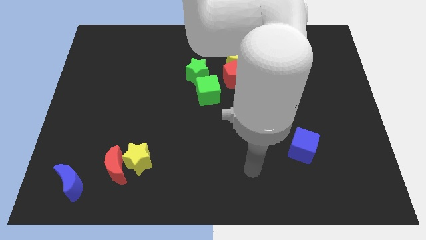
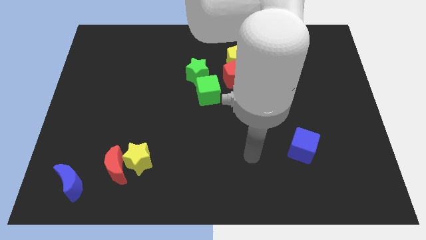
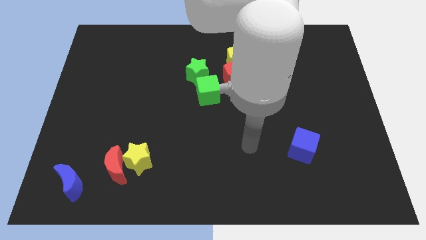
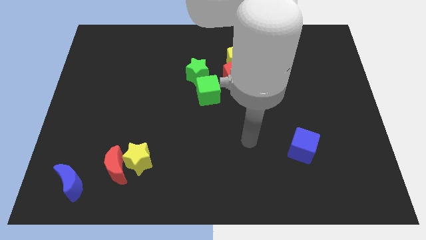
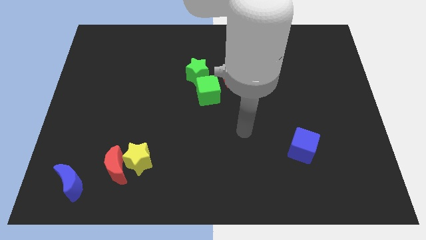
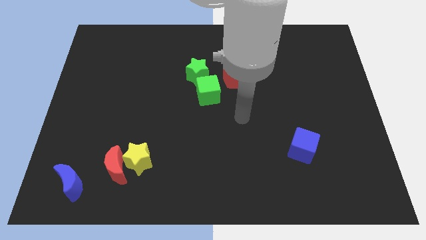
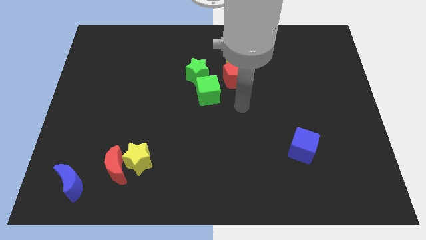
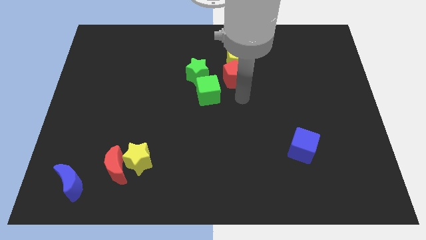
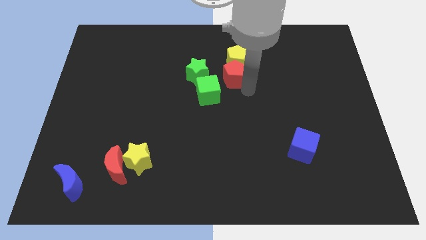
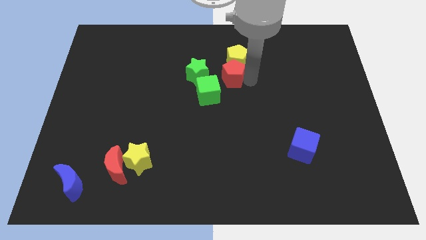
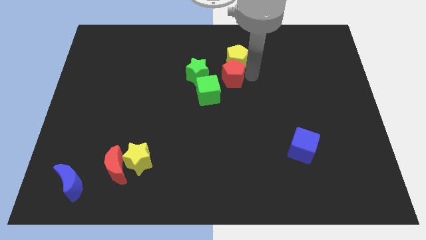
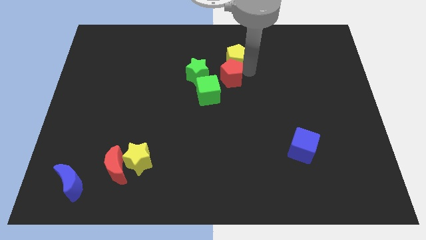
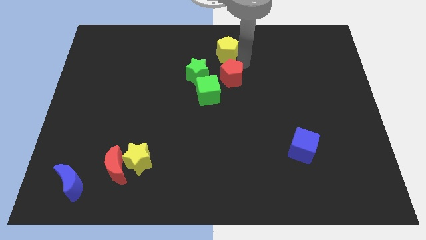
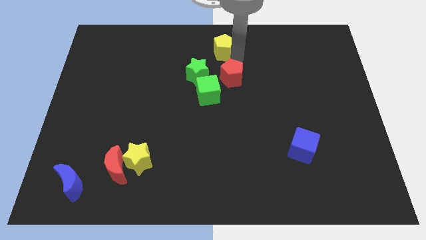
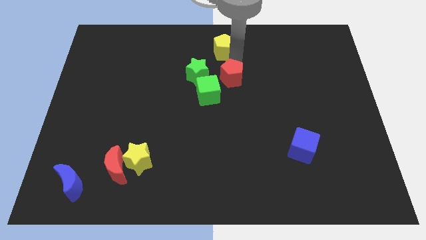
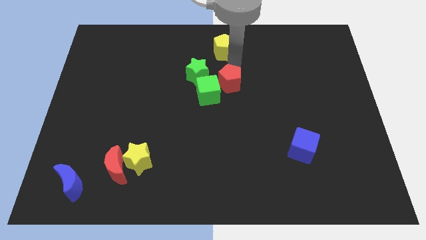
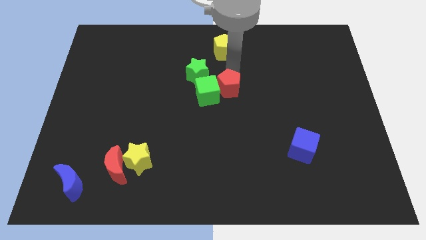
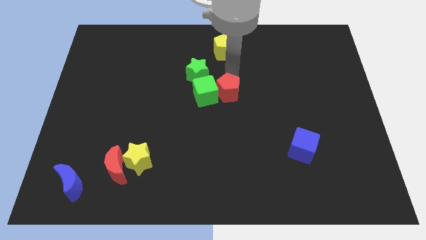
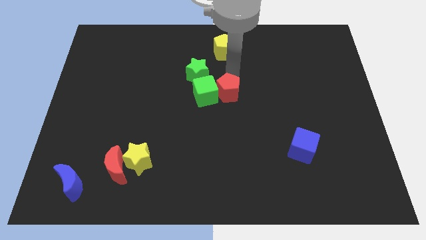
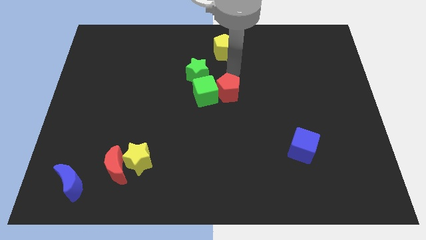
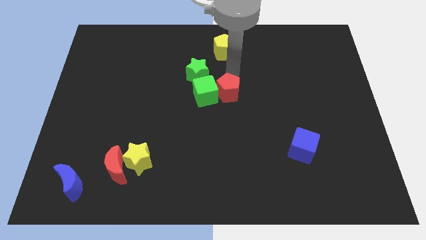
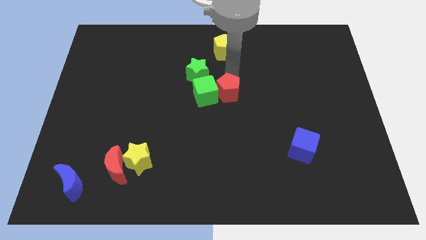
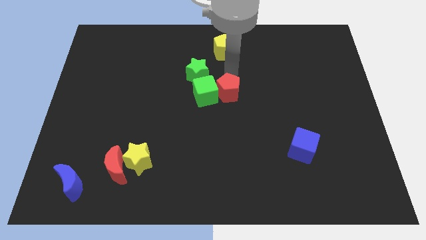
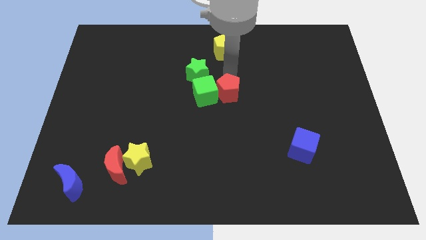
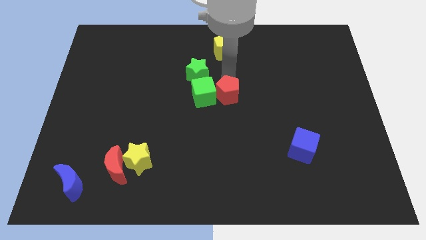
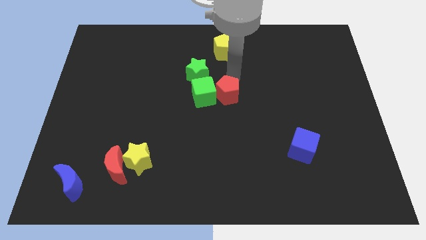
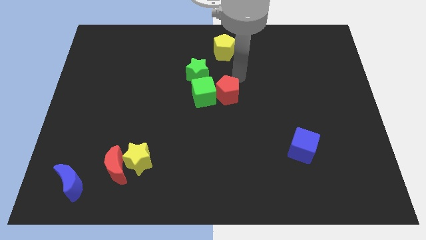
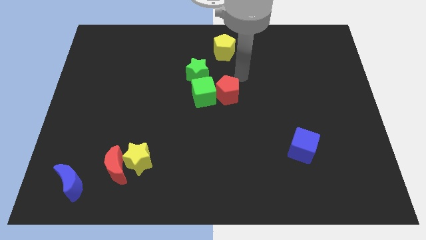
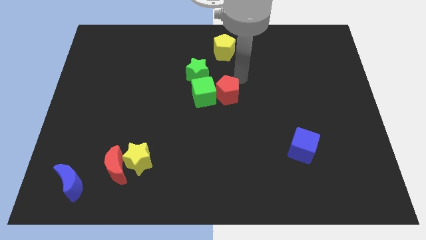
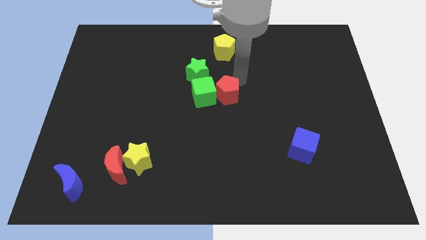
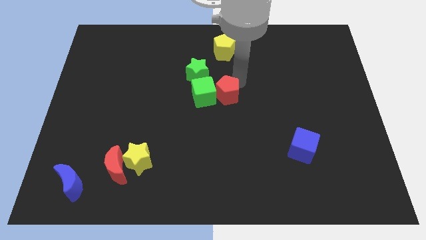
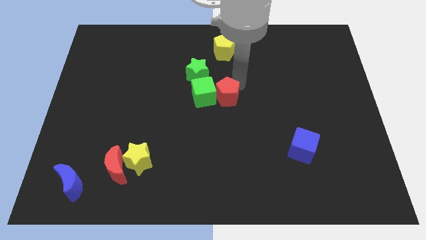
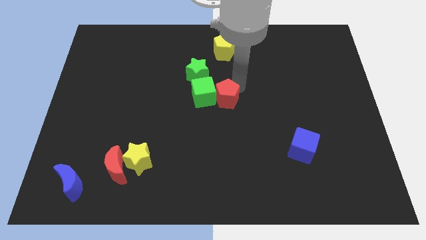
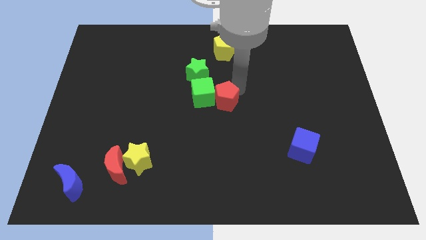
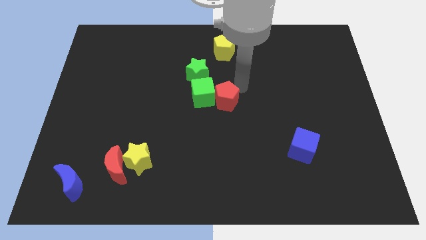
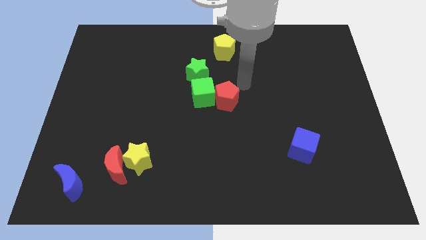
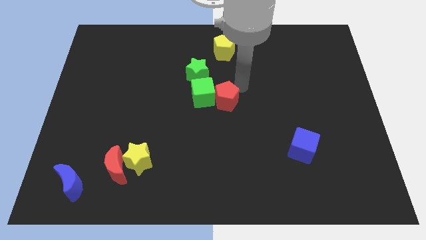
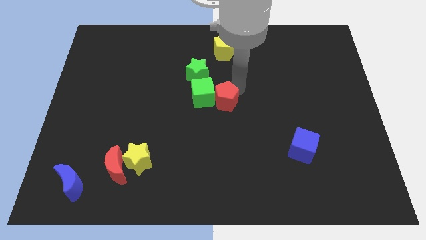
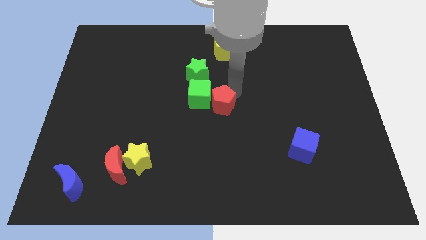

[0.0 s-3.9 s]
push the red pentagon a little bit diagonally downwards and left

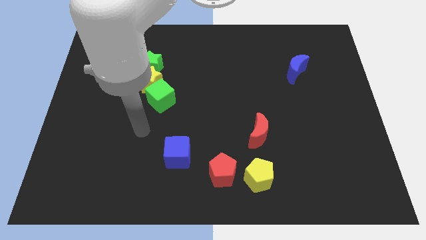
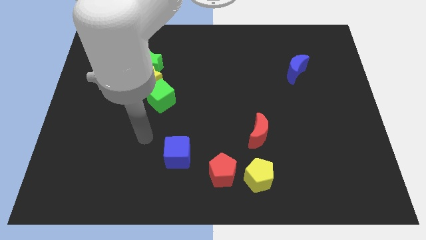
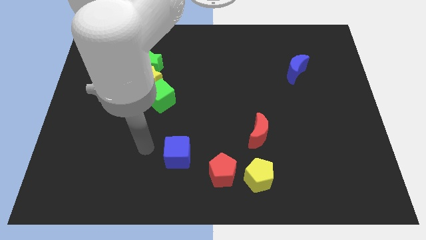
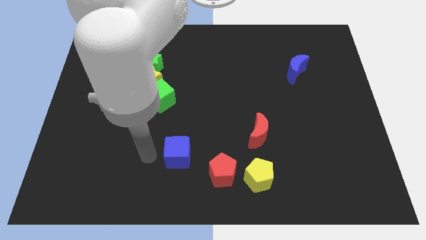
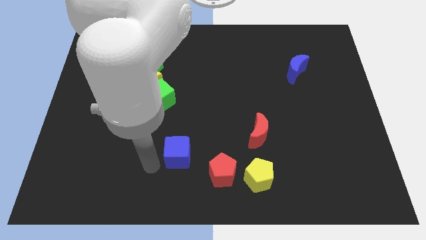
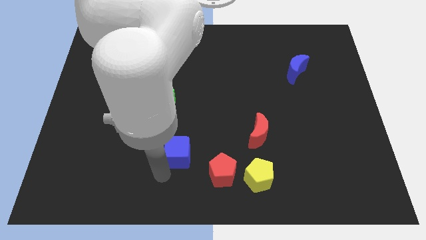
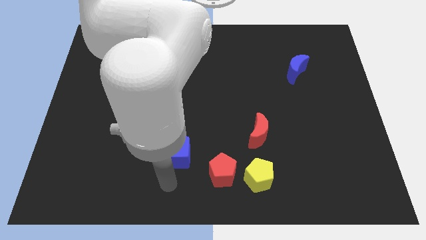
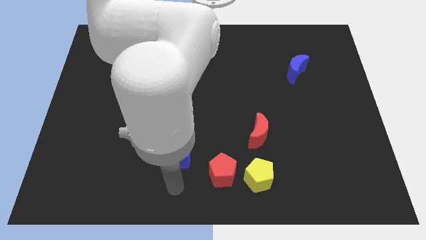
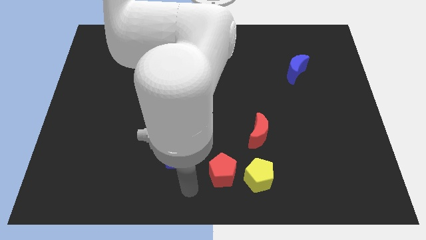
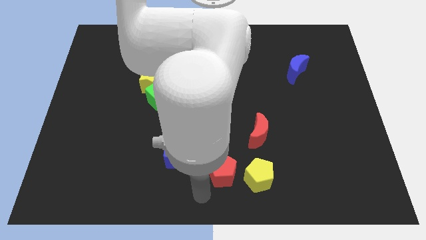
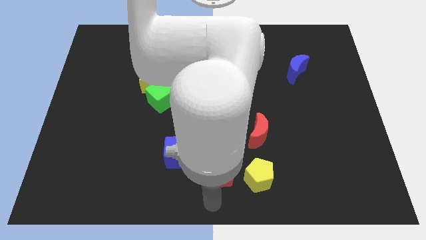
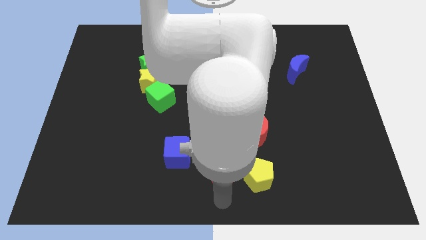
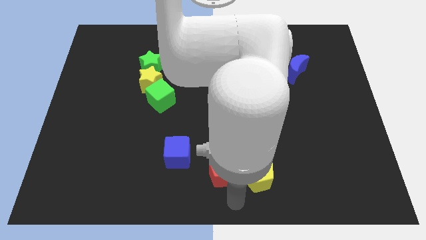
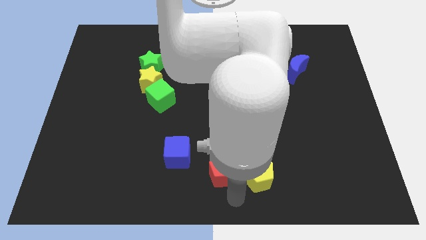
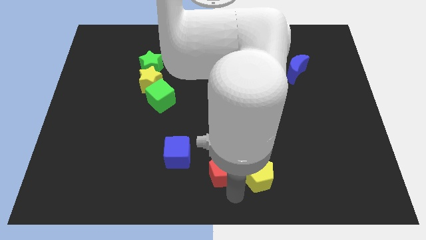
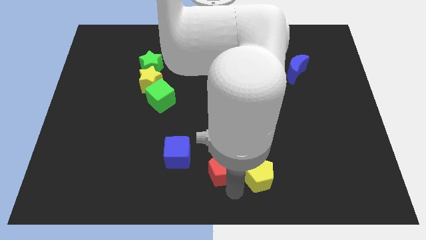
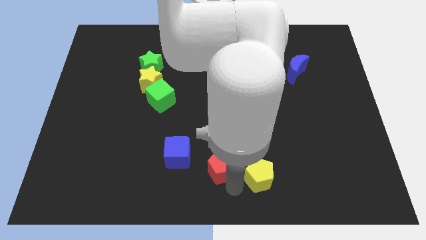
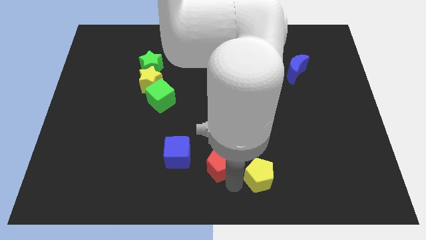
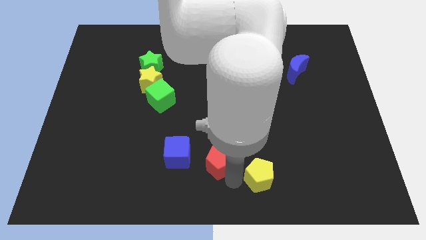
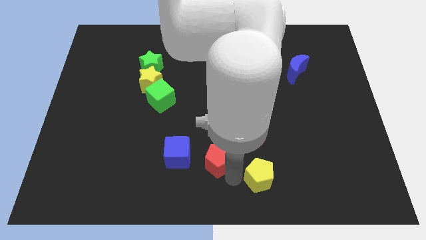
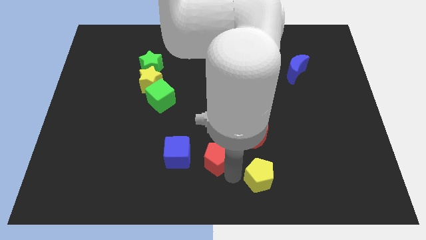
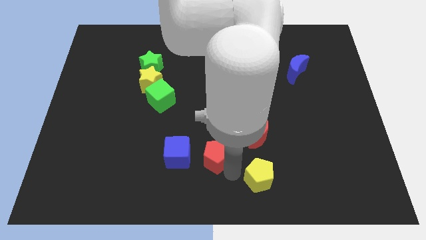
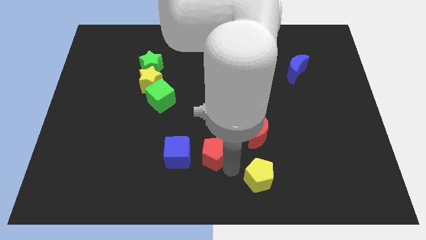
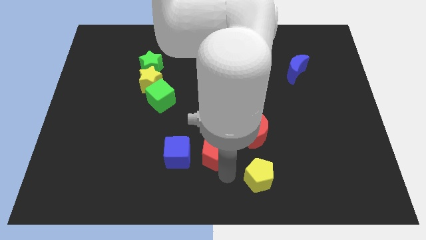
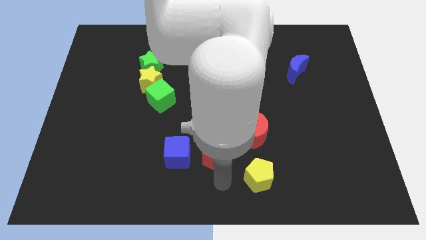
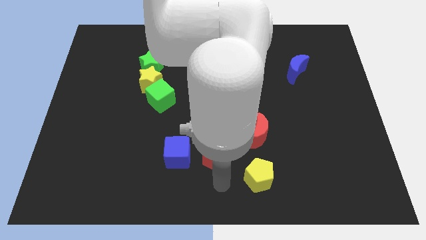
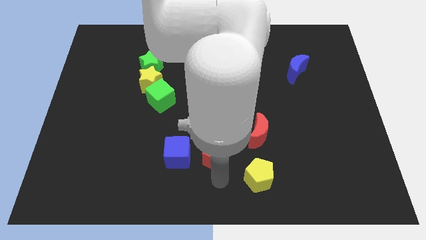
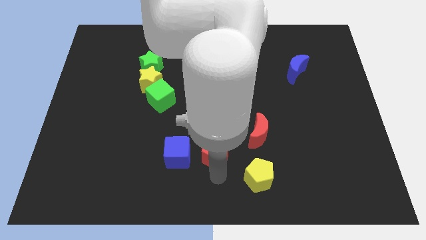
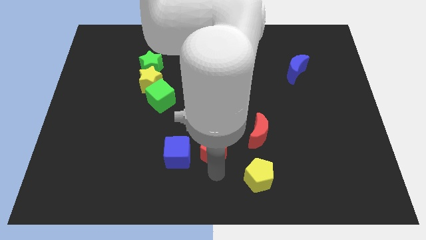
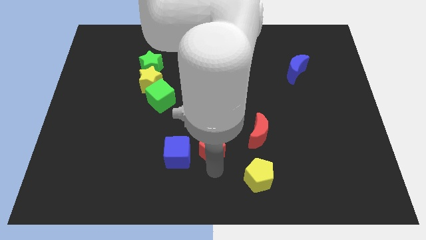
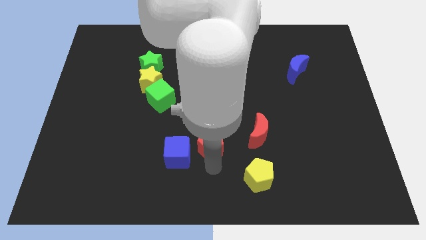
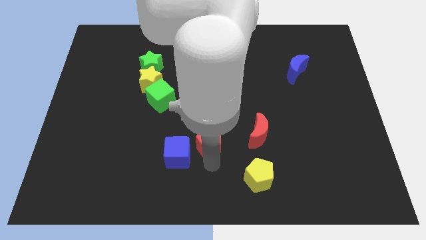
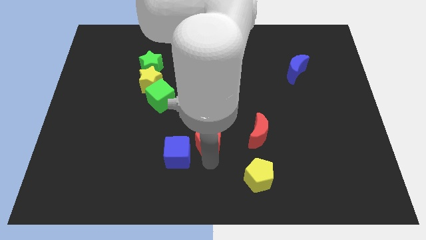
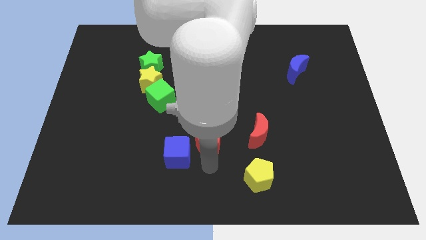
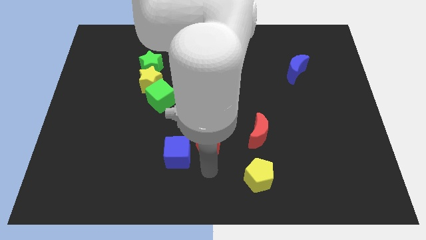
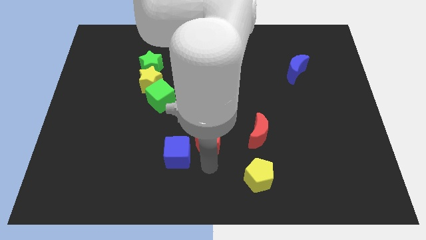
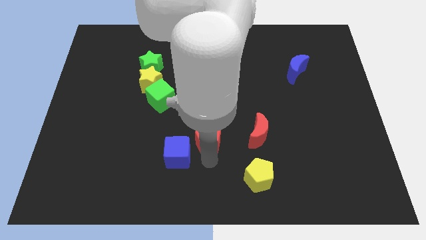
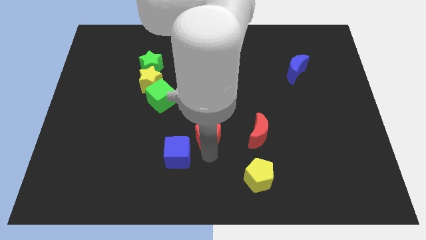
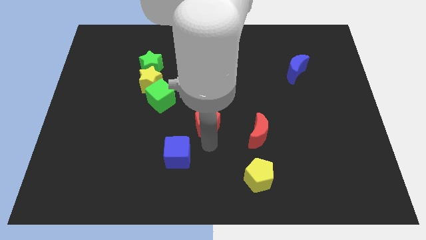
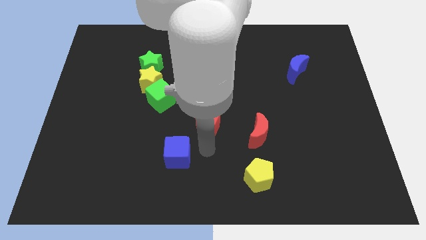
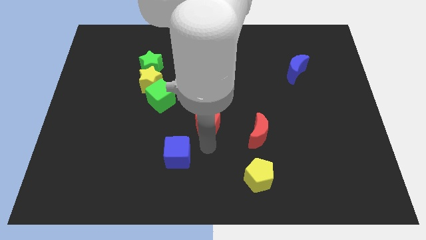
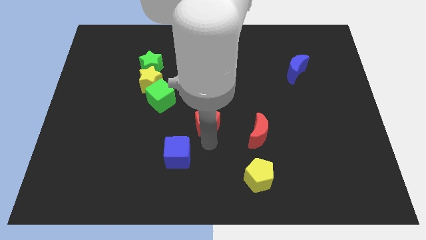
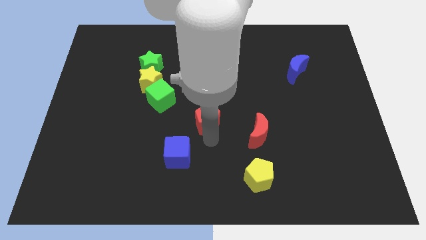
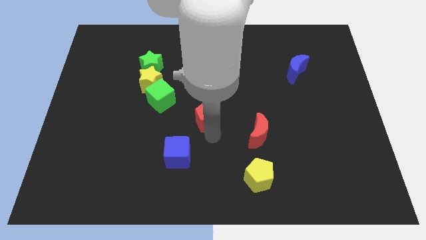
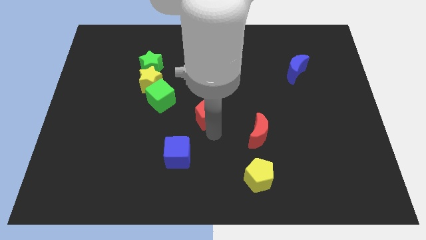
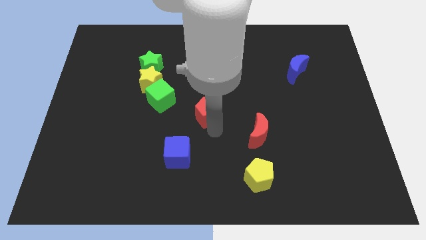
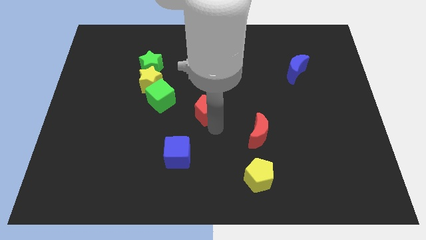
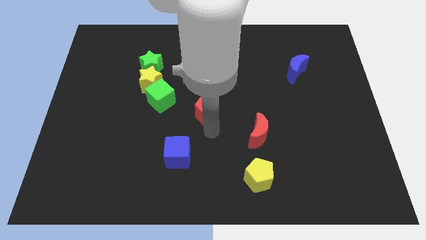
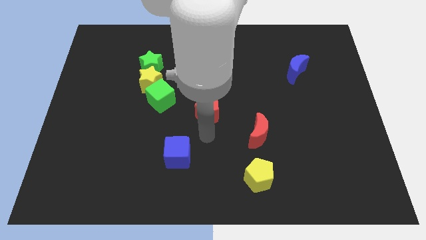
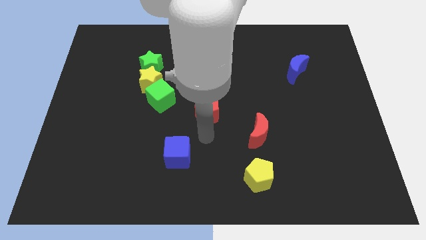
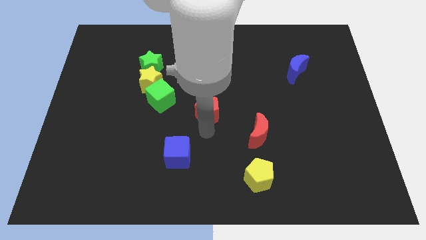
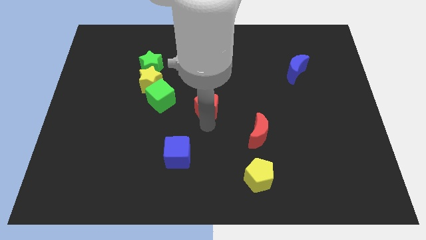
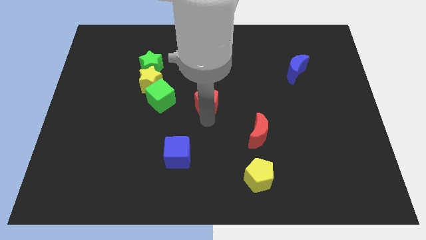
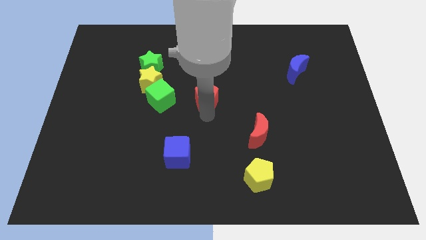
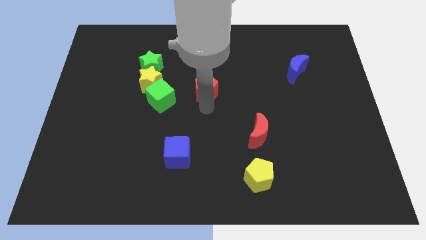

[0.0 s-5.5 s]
slide the red pentagon upwards
